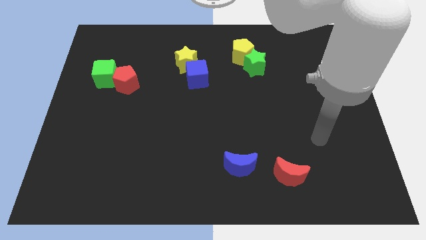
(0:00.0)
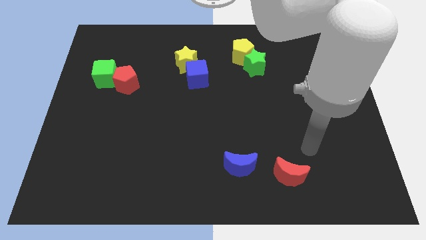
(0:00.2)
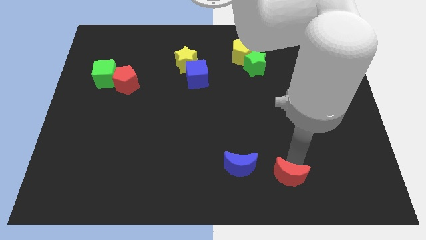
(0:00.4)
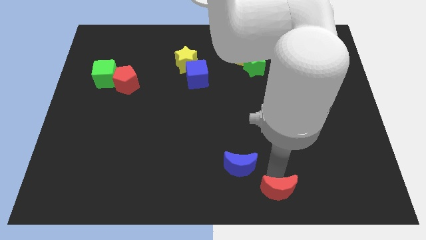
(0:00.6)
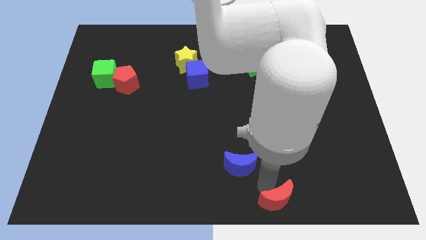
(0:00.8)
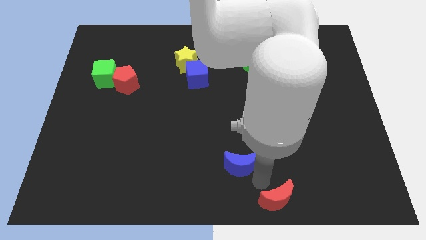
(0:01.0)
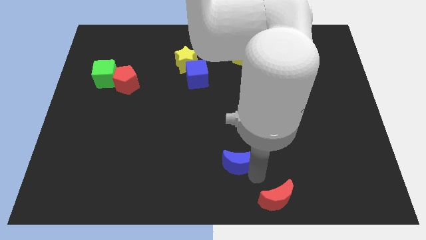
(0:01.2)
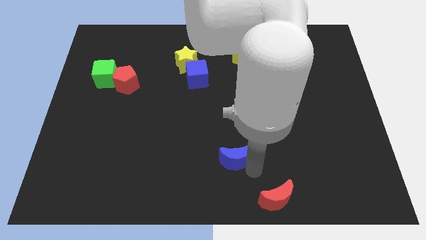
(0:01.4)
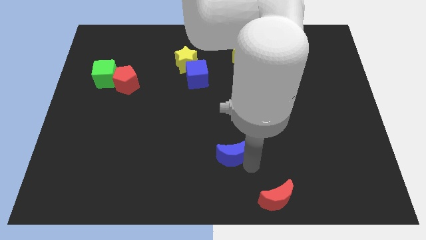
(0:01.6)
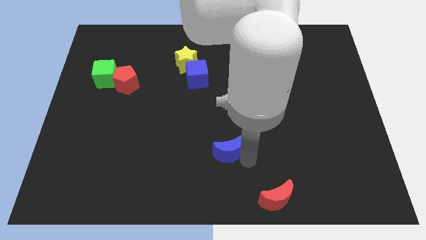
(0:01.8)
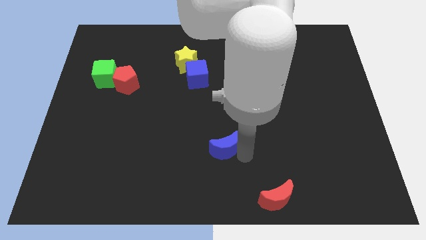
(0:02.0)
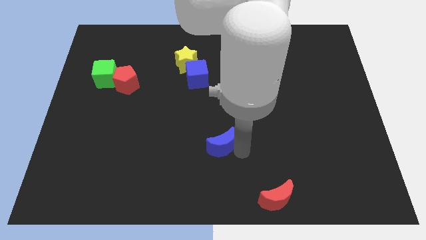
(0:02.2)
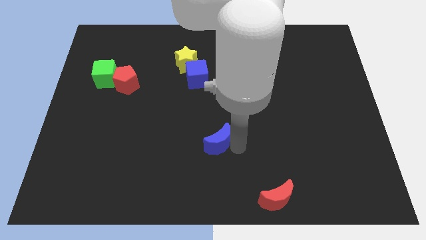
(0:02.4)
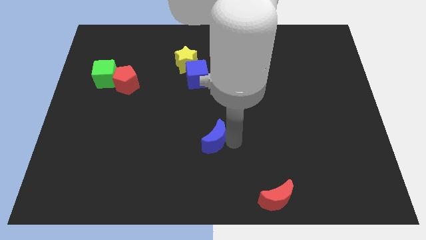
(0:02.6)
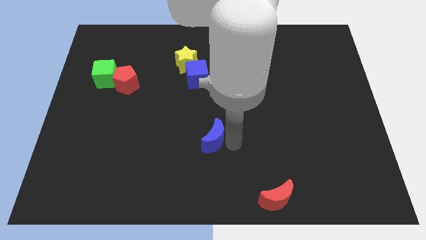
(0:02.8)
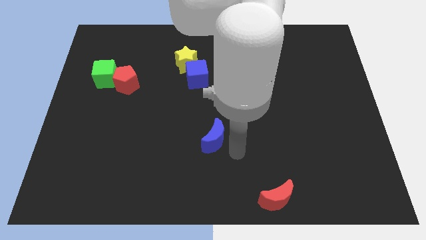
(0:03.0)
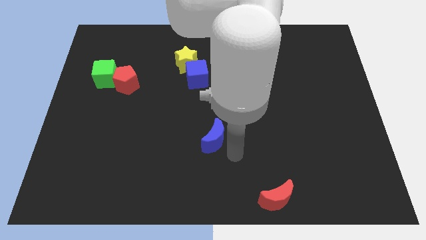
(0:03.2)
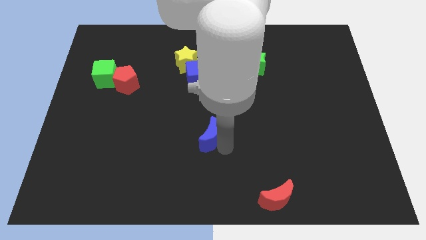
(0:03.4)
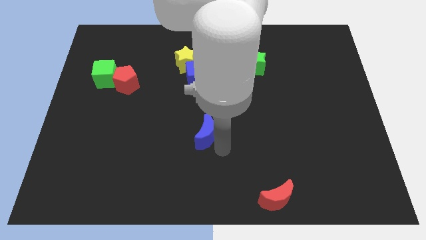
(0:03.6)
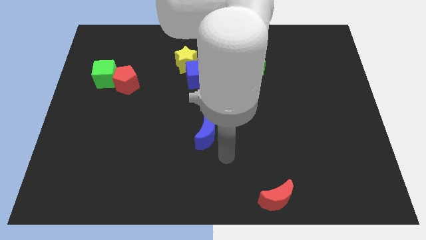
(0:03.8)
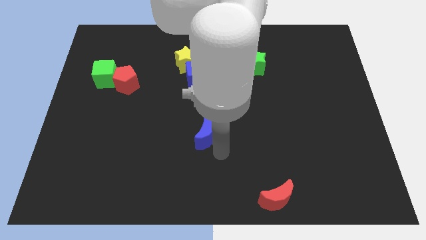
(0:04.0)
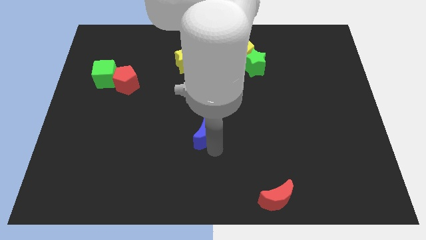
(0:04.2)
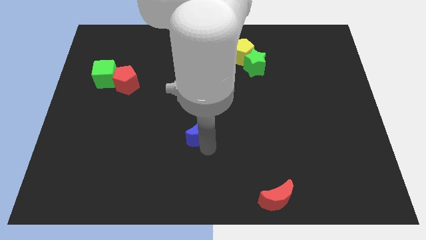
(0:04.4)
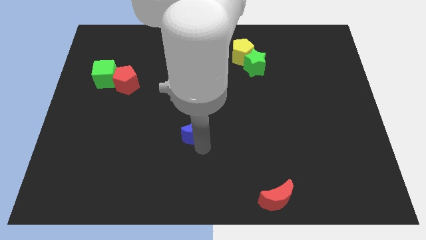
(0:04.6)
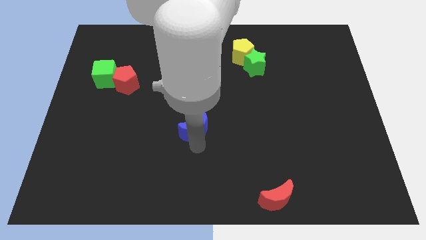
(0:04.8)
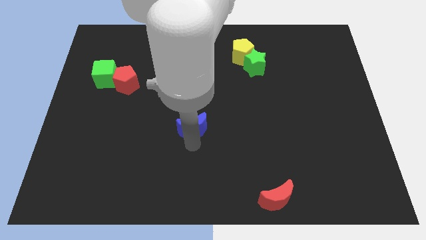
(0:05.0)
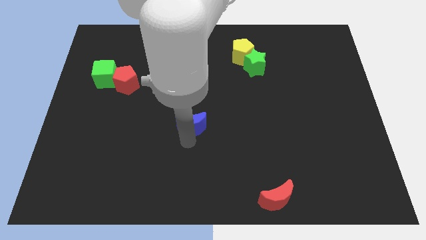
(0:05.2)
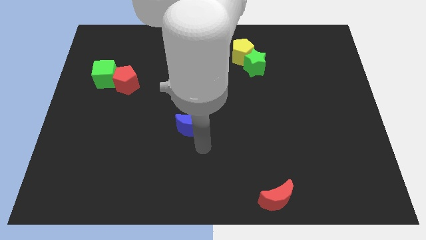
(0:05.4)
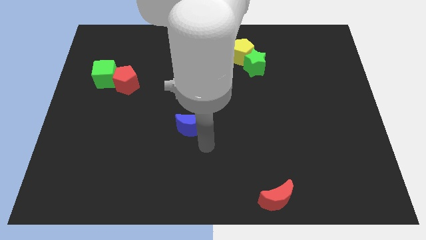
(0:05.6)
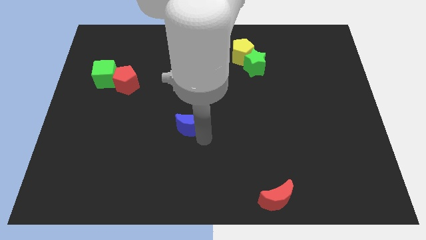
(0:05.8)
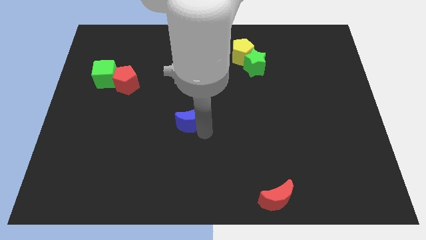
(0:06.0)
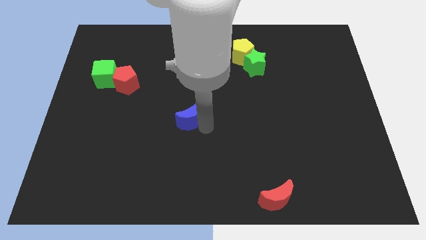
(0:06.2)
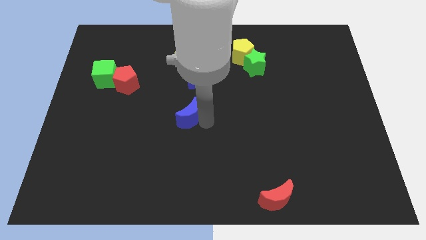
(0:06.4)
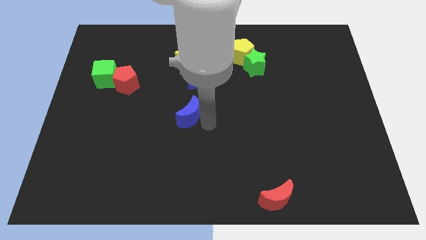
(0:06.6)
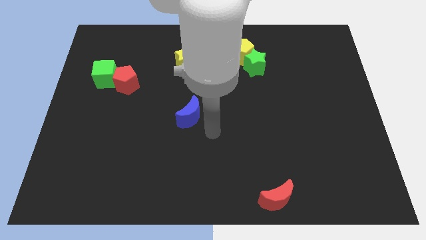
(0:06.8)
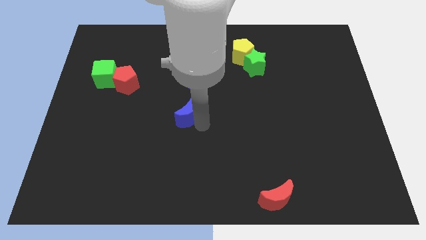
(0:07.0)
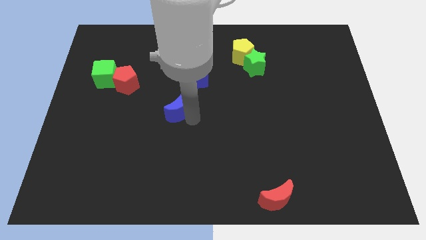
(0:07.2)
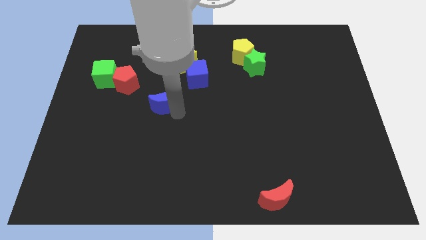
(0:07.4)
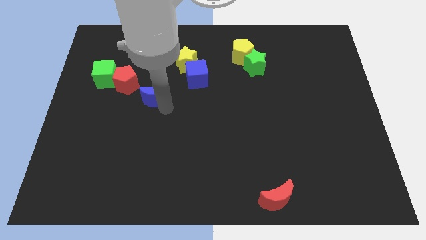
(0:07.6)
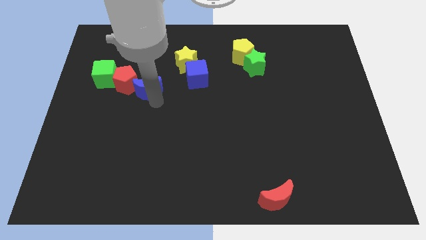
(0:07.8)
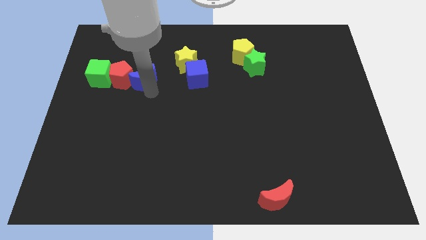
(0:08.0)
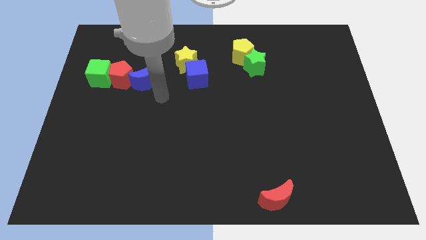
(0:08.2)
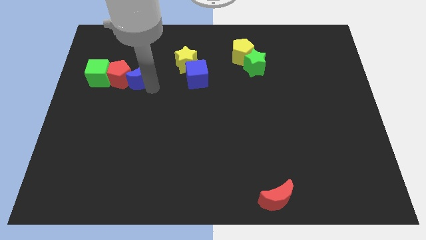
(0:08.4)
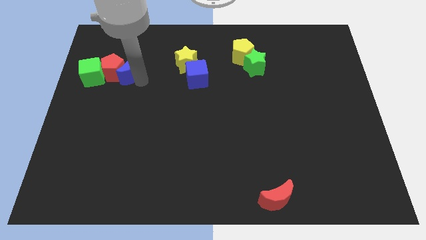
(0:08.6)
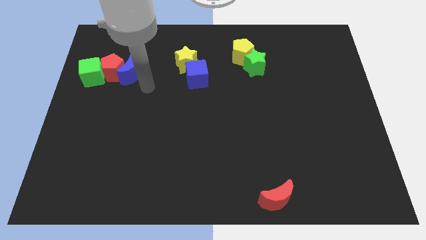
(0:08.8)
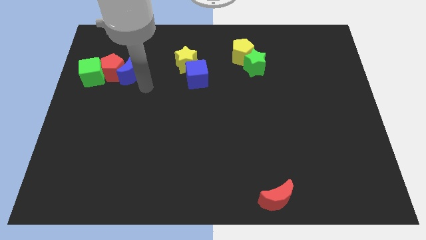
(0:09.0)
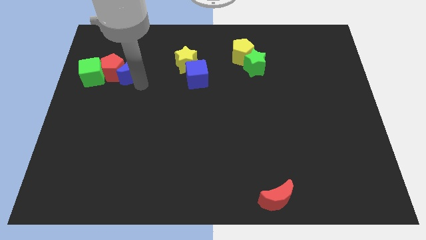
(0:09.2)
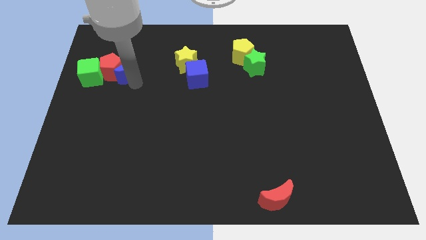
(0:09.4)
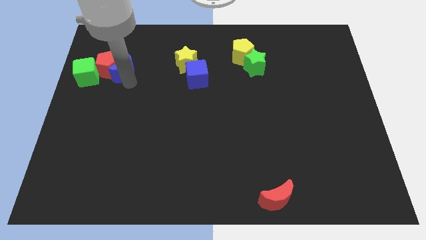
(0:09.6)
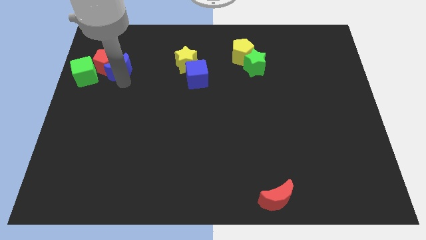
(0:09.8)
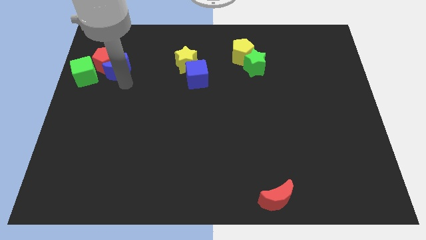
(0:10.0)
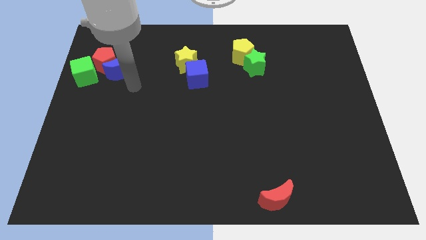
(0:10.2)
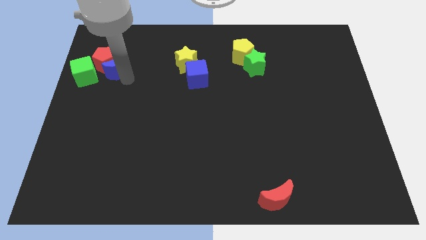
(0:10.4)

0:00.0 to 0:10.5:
slide the blue moon diagonally up and to the right of the green cube

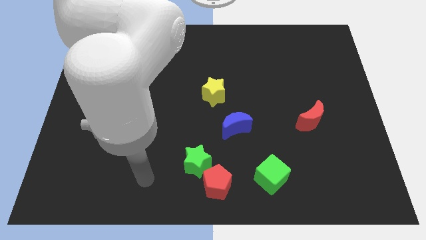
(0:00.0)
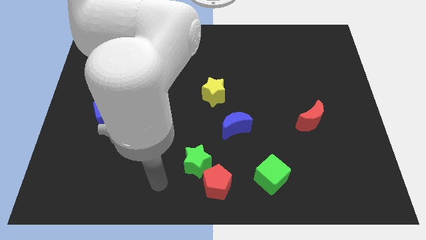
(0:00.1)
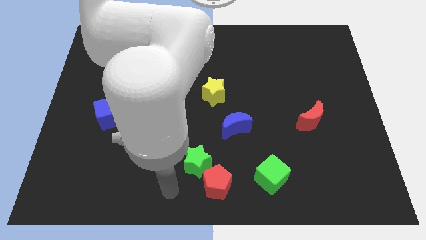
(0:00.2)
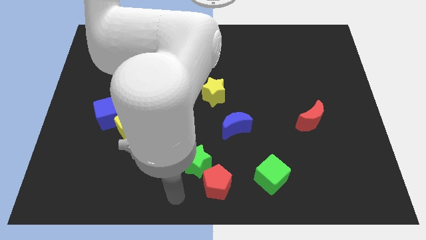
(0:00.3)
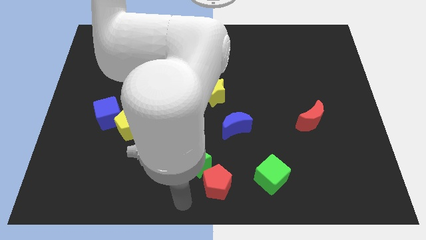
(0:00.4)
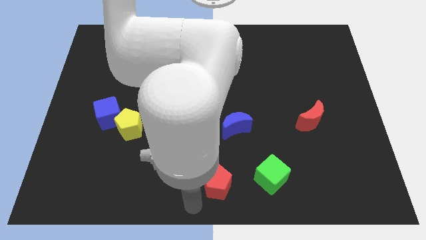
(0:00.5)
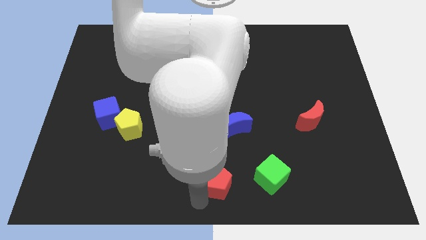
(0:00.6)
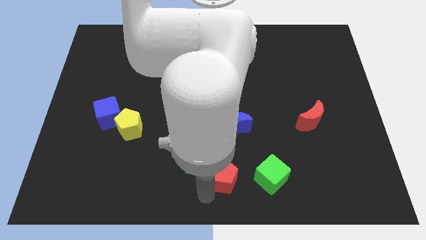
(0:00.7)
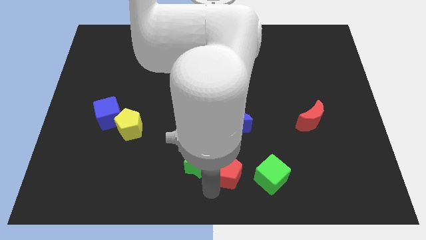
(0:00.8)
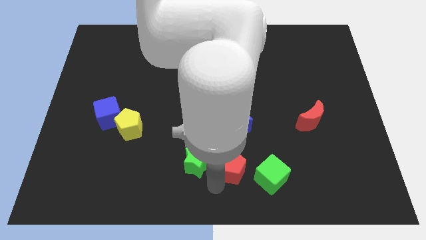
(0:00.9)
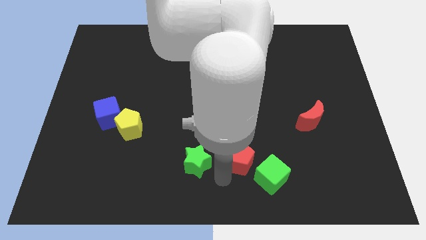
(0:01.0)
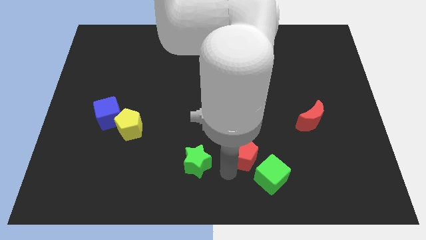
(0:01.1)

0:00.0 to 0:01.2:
slide the red pentagon diagonally down and to the right of the blue moon
